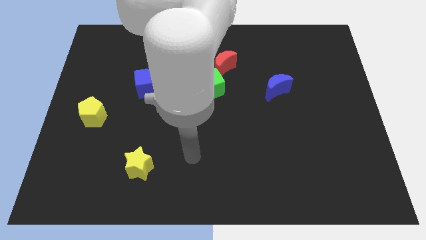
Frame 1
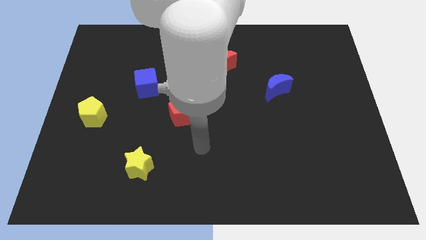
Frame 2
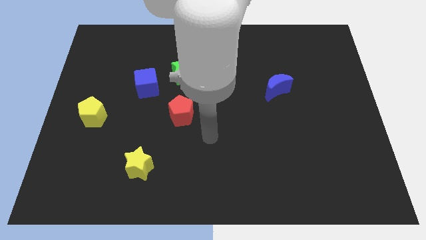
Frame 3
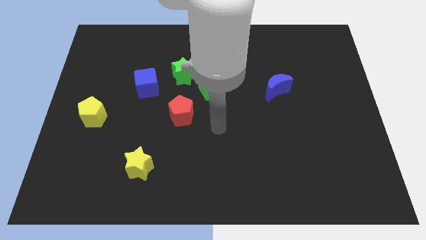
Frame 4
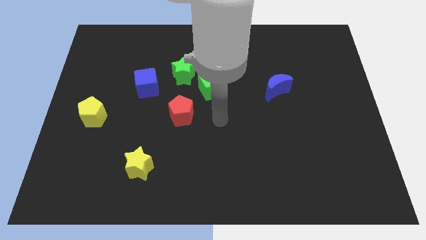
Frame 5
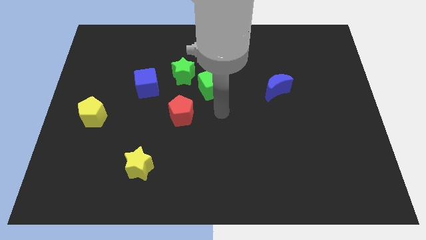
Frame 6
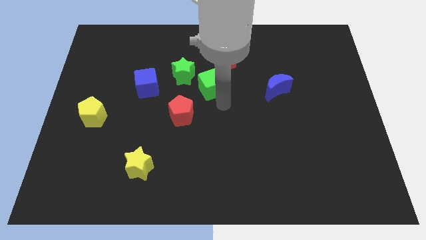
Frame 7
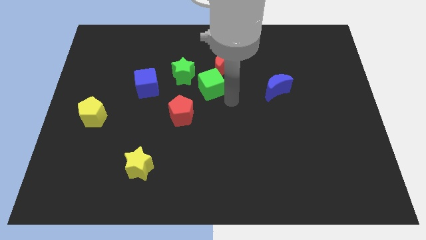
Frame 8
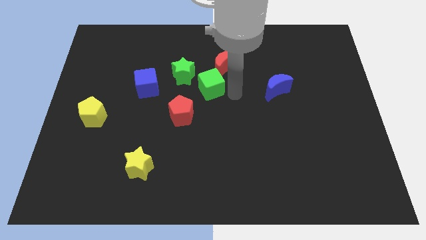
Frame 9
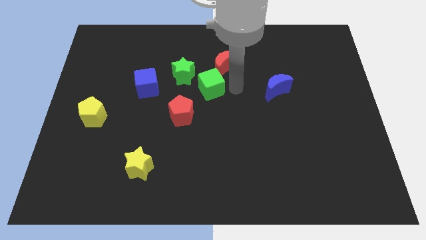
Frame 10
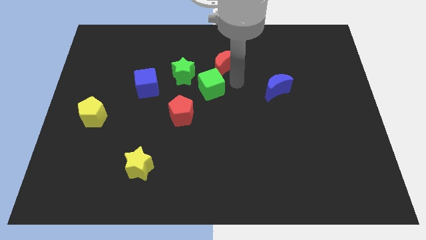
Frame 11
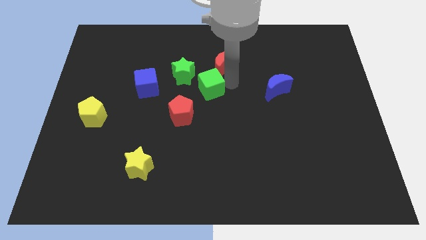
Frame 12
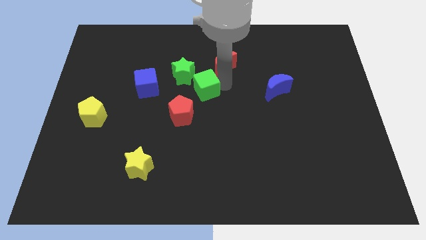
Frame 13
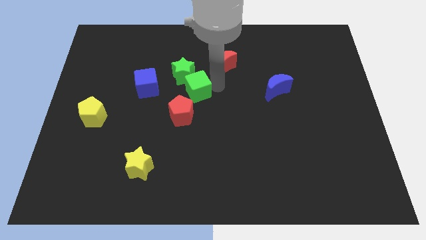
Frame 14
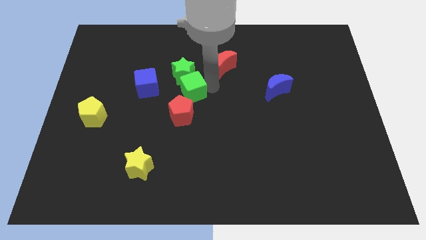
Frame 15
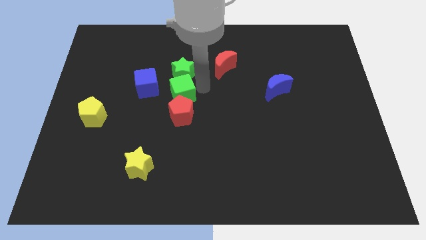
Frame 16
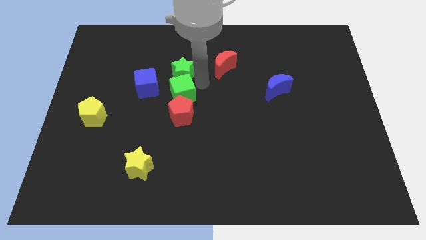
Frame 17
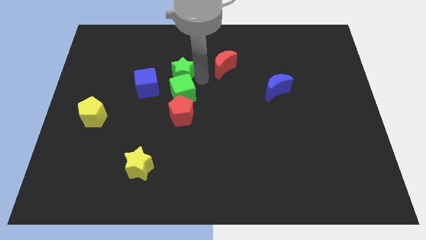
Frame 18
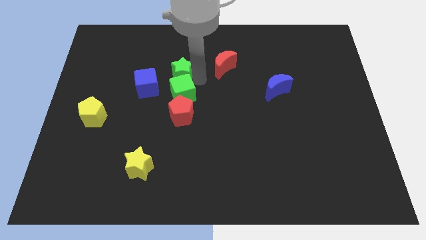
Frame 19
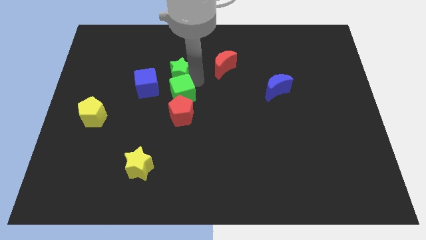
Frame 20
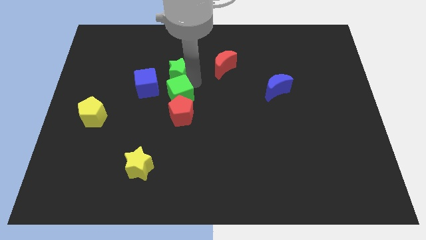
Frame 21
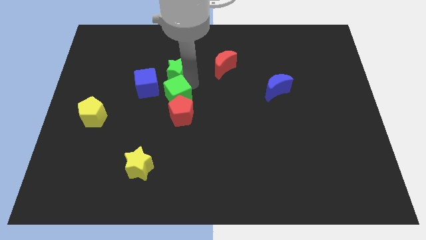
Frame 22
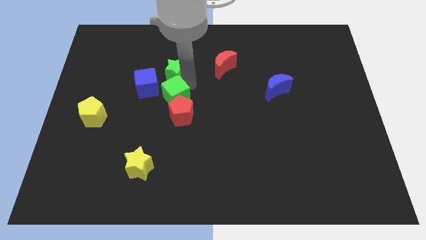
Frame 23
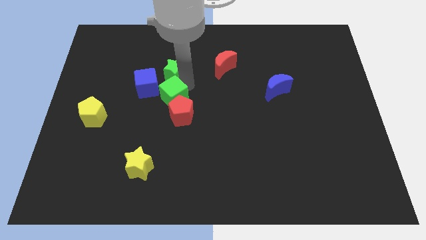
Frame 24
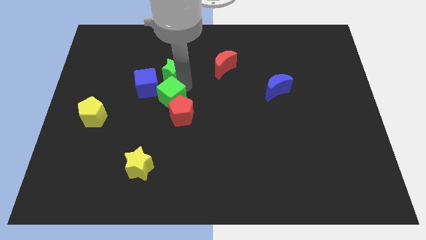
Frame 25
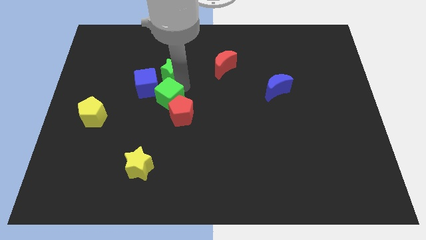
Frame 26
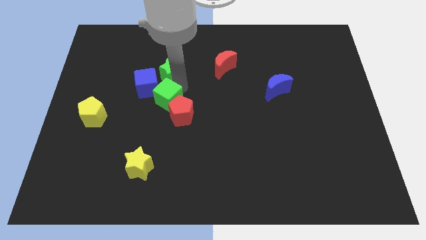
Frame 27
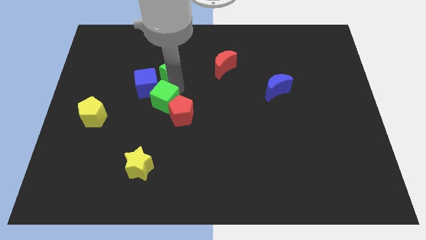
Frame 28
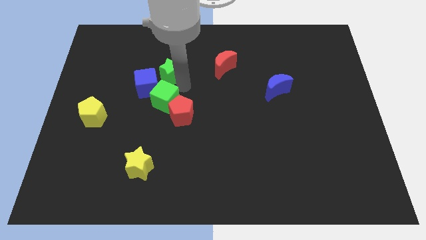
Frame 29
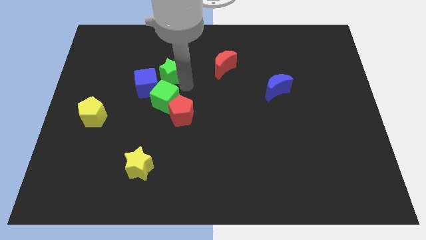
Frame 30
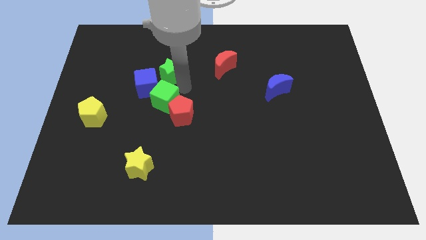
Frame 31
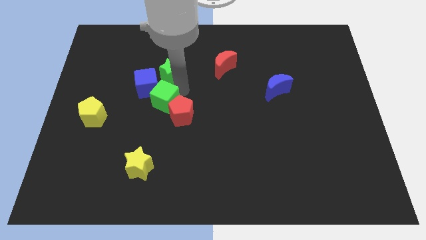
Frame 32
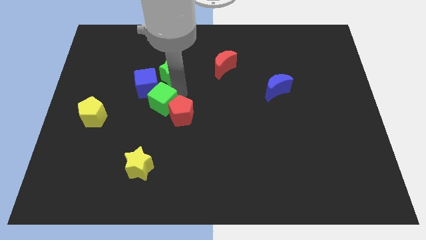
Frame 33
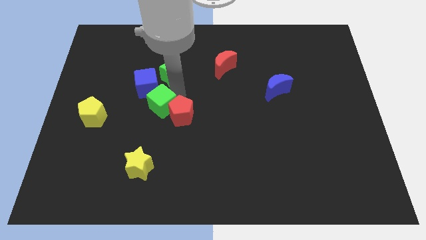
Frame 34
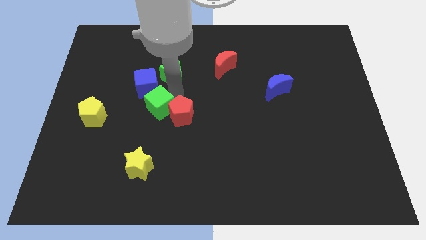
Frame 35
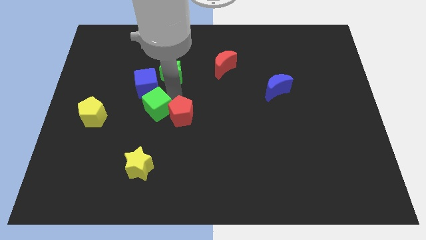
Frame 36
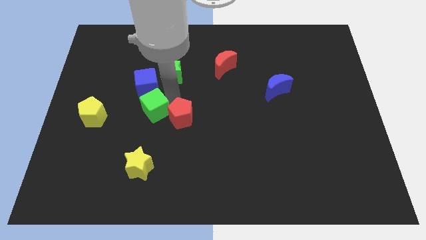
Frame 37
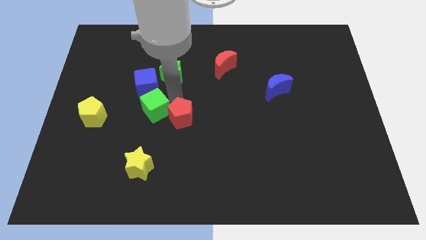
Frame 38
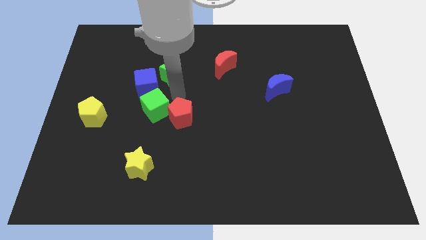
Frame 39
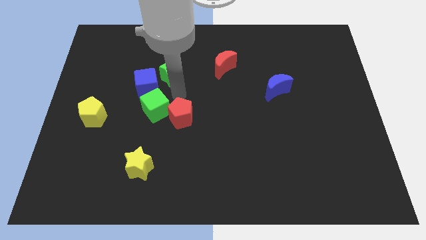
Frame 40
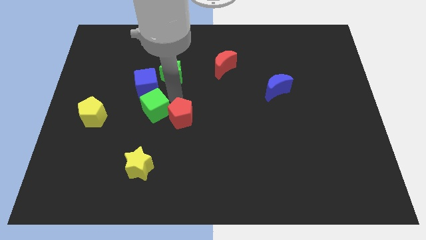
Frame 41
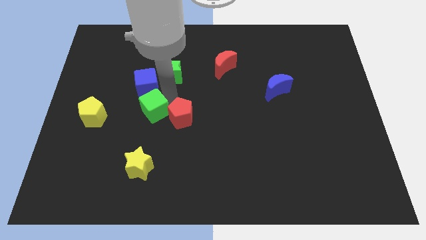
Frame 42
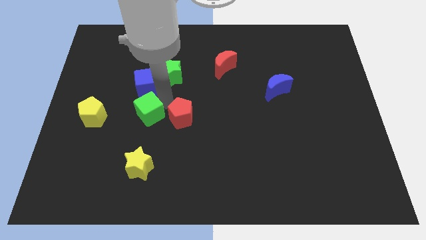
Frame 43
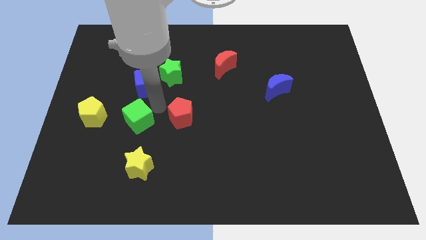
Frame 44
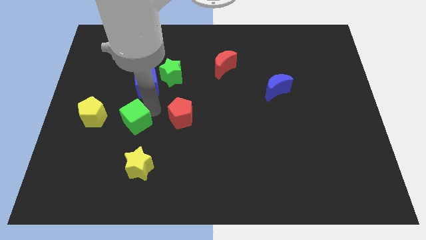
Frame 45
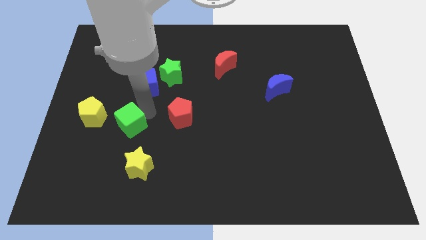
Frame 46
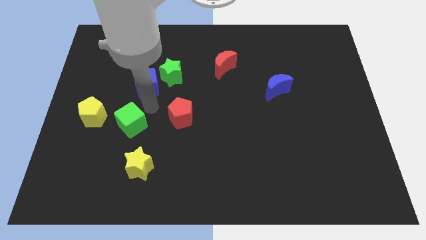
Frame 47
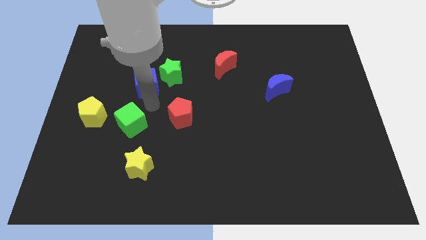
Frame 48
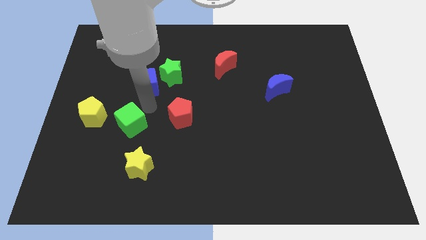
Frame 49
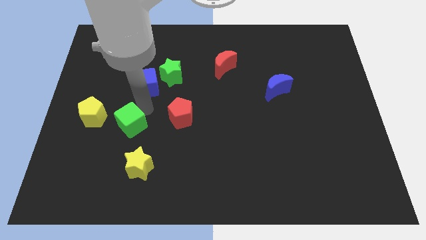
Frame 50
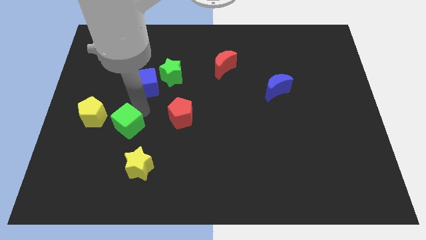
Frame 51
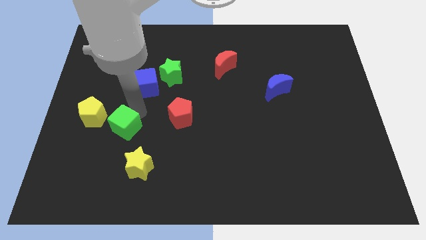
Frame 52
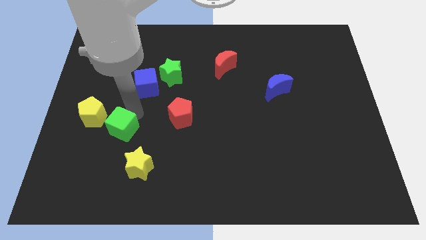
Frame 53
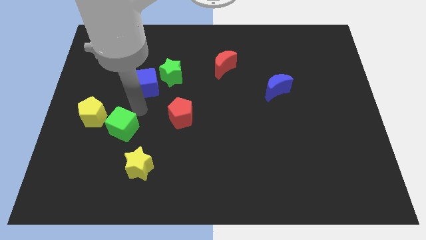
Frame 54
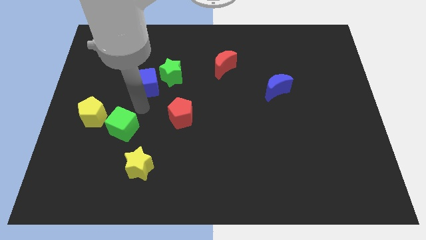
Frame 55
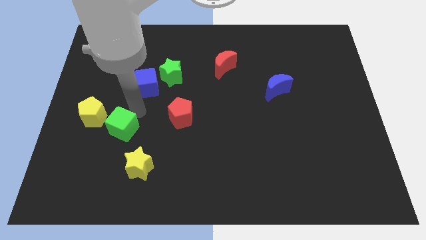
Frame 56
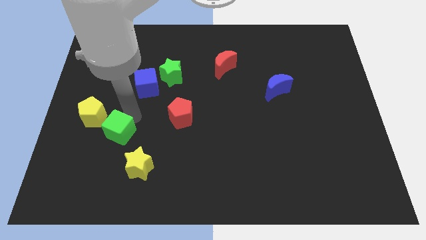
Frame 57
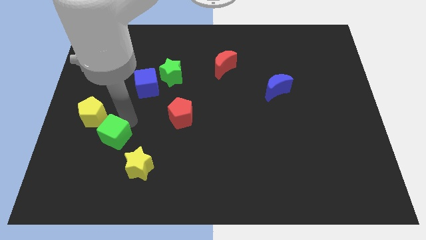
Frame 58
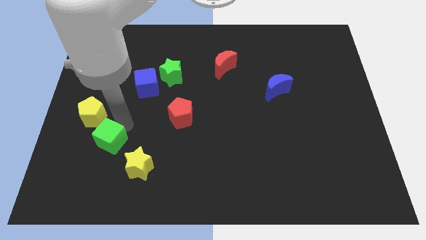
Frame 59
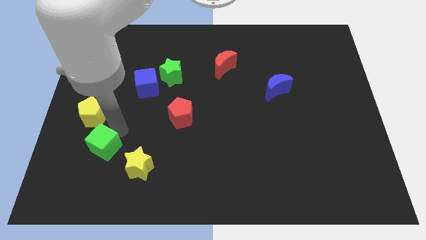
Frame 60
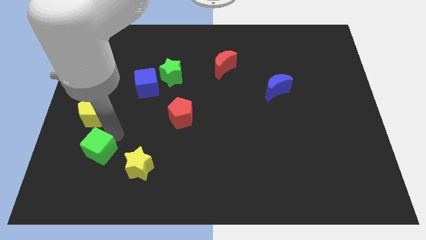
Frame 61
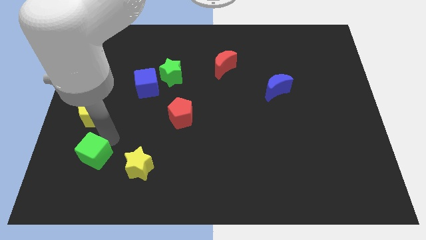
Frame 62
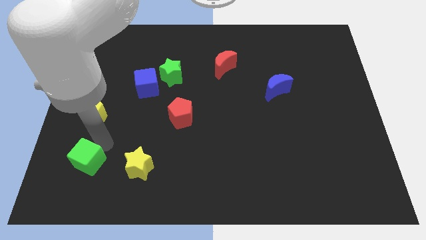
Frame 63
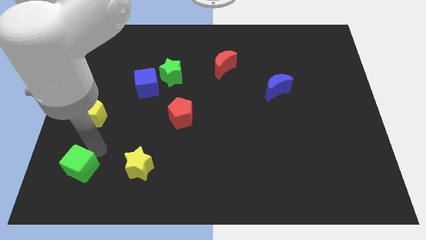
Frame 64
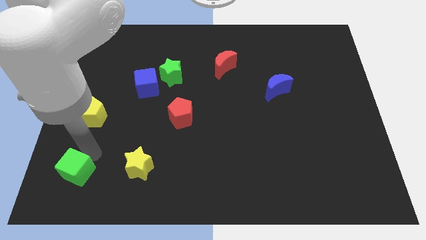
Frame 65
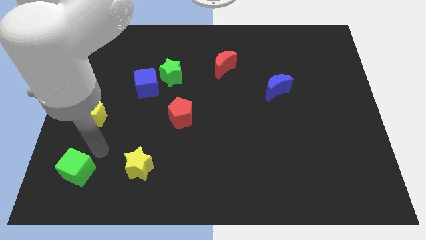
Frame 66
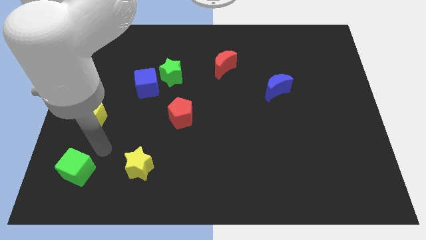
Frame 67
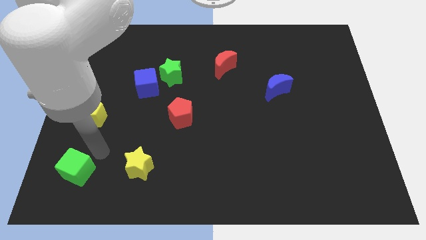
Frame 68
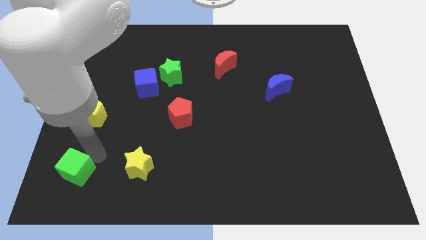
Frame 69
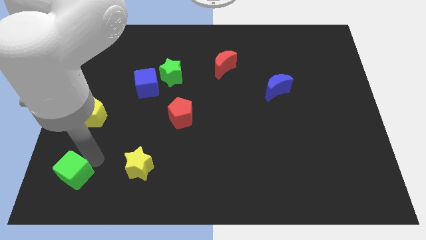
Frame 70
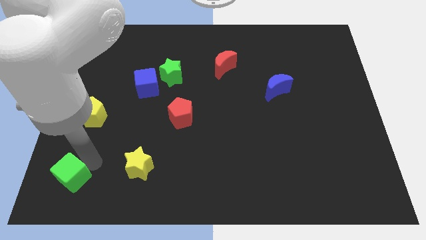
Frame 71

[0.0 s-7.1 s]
slide the green cube to the bottom left corner
